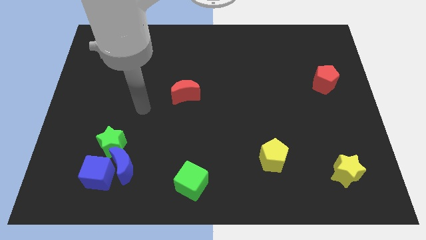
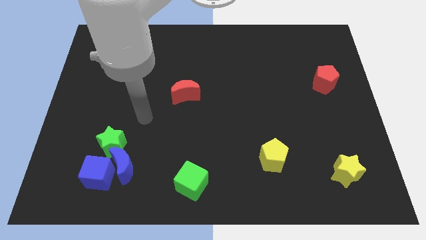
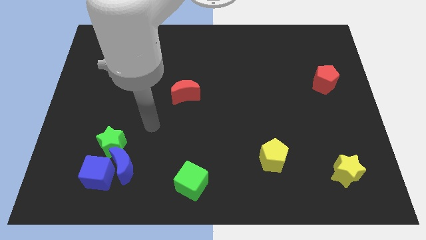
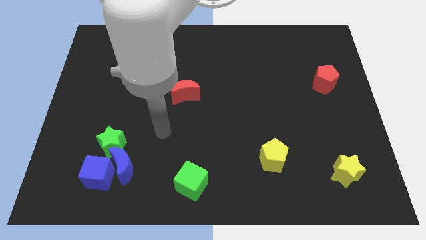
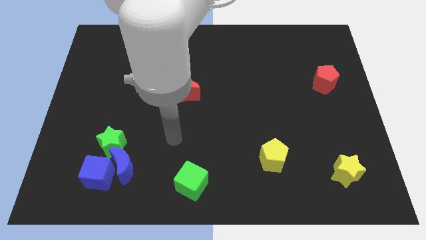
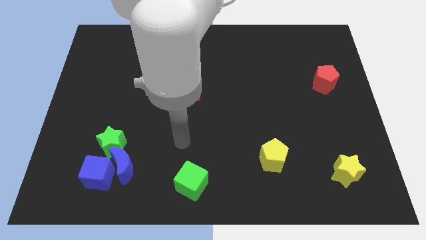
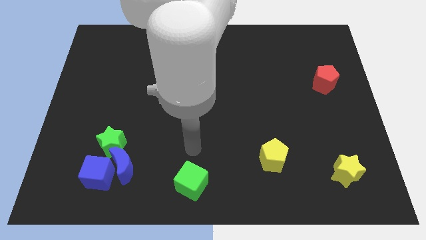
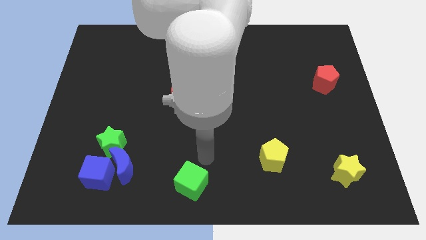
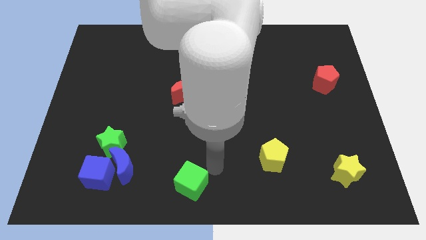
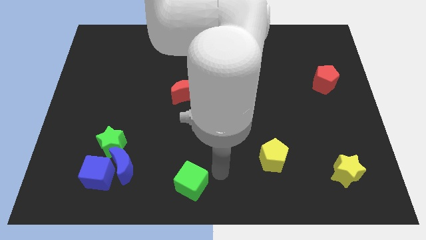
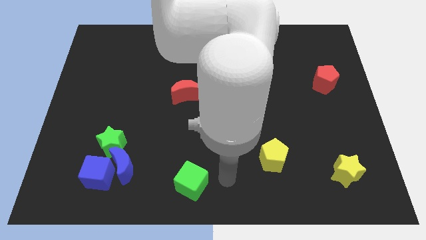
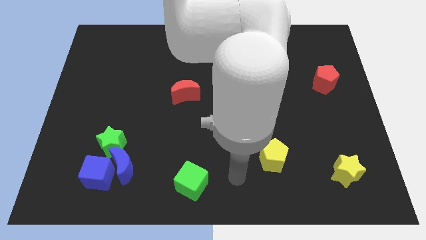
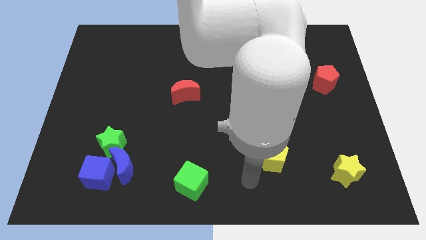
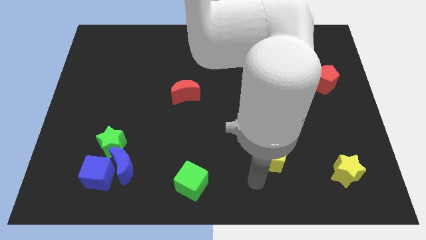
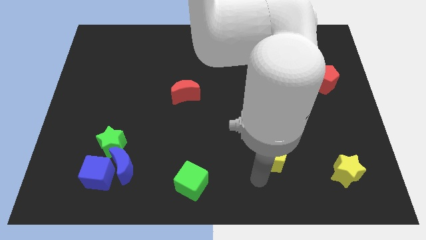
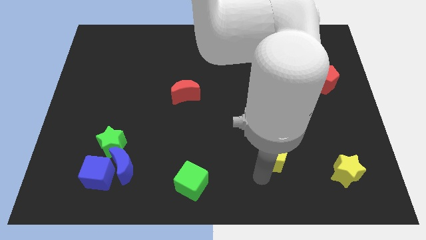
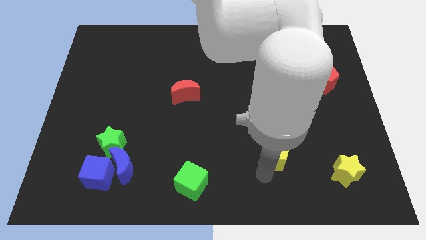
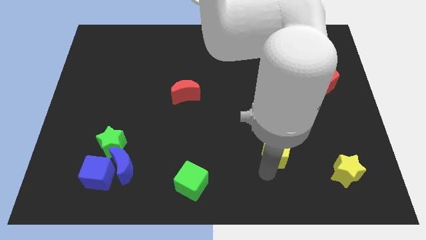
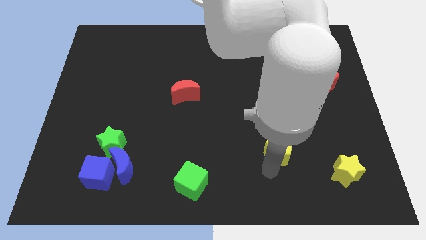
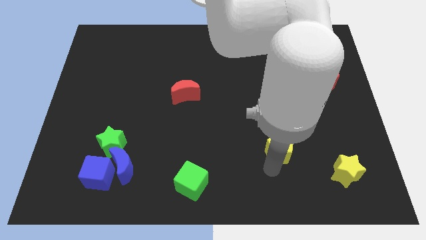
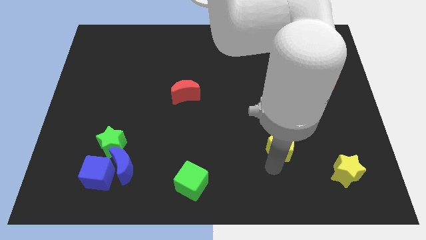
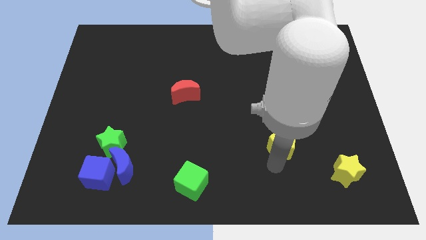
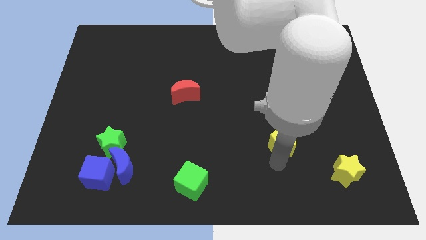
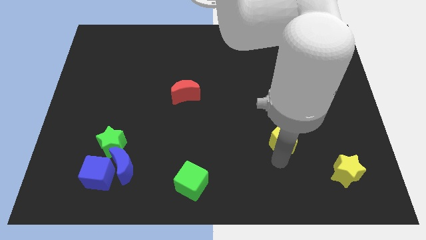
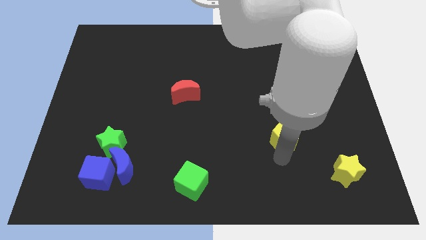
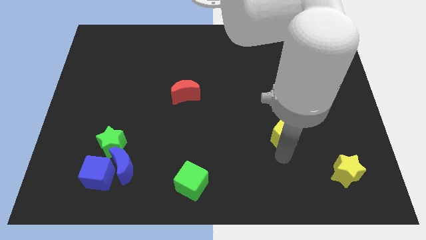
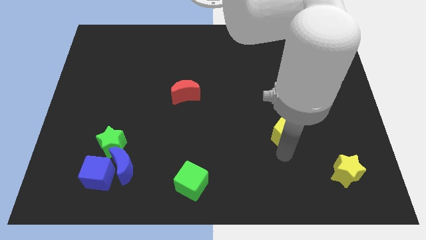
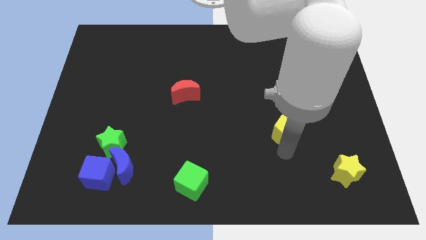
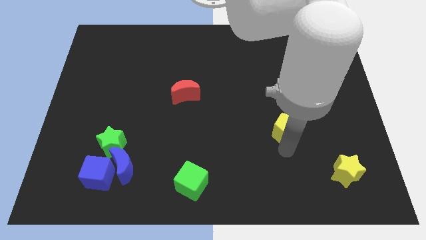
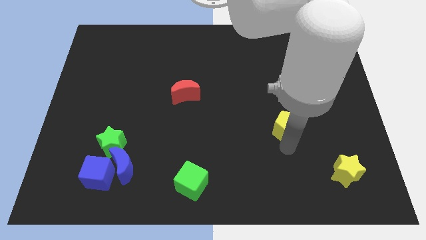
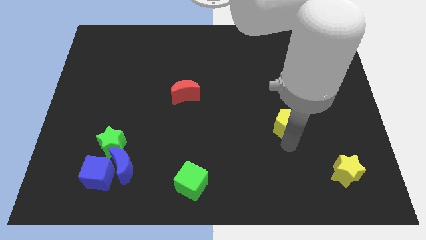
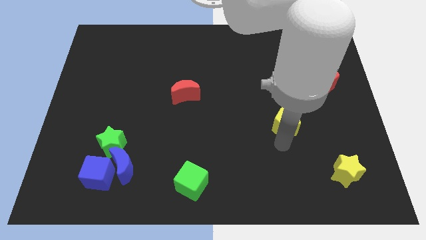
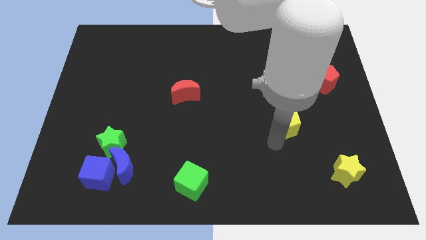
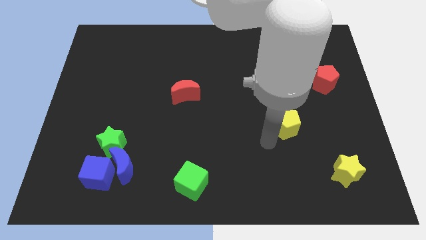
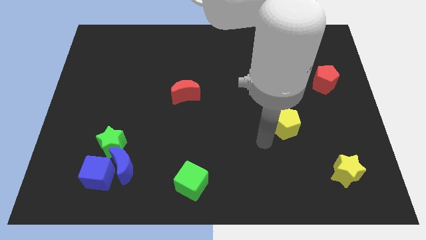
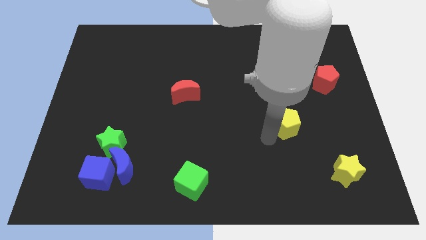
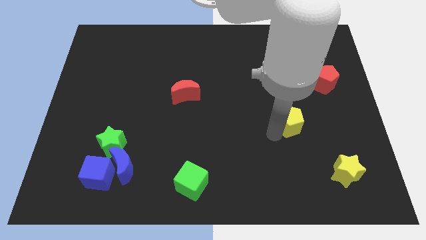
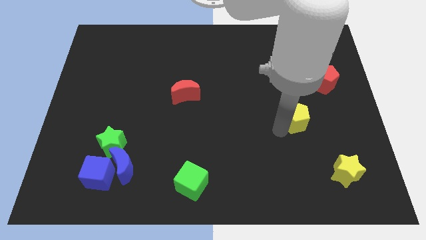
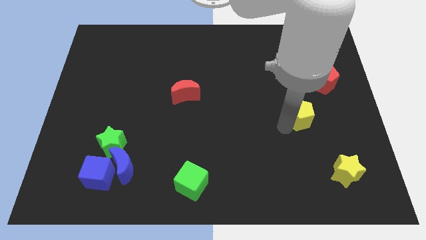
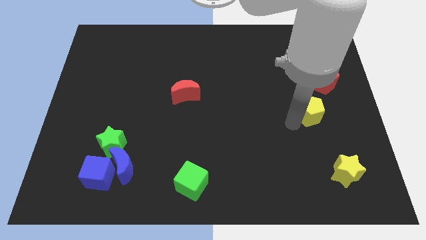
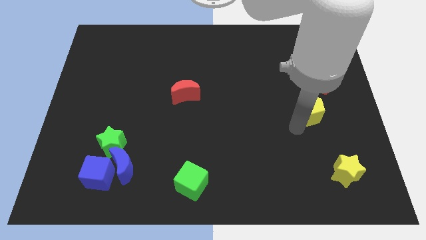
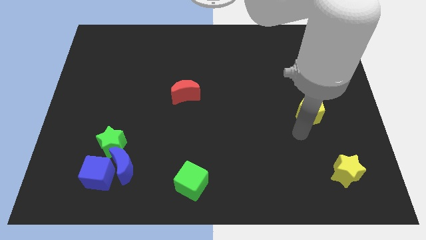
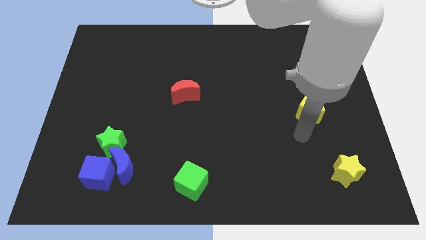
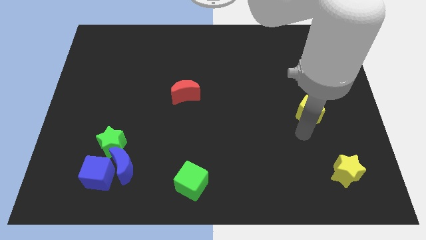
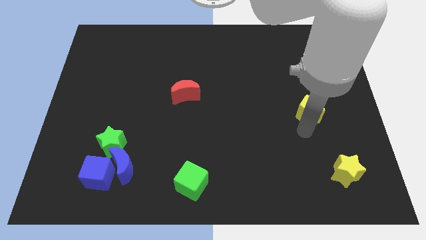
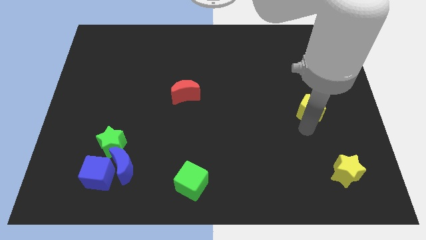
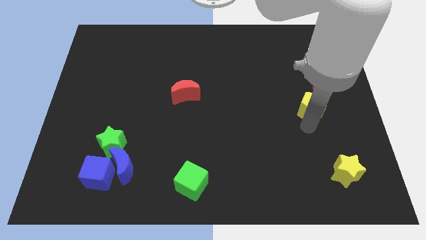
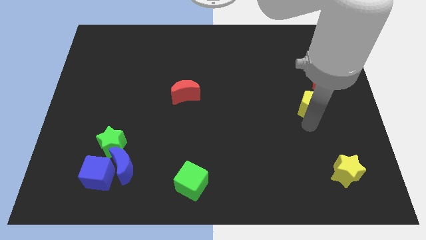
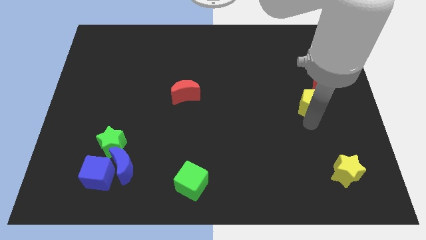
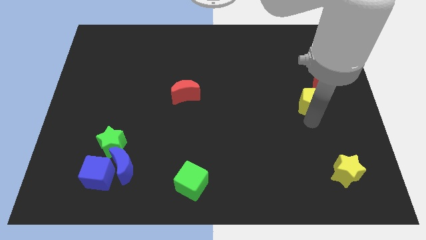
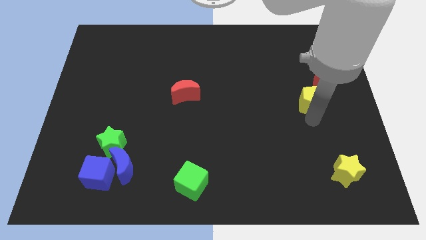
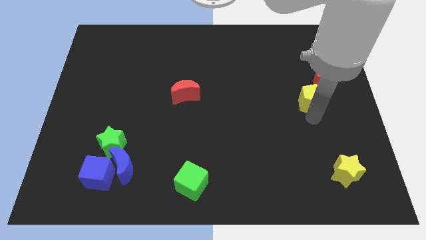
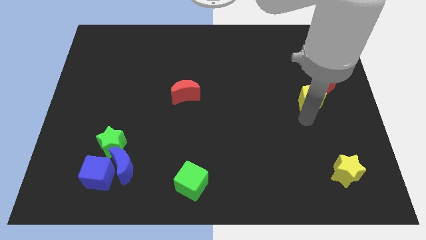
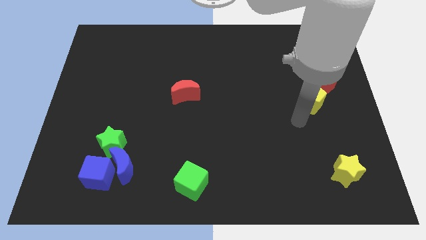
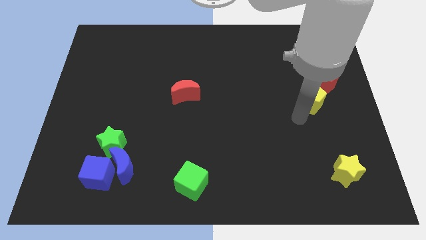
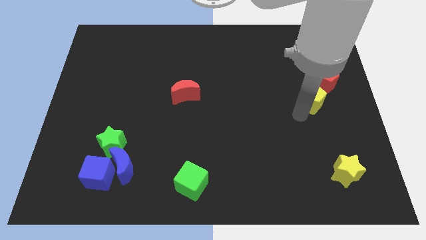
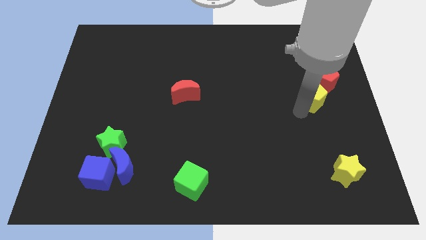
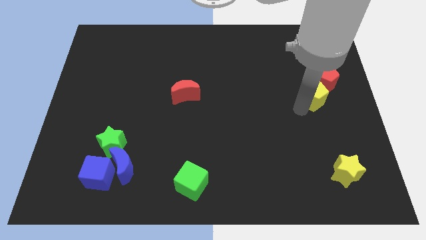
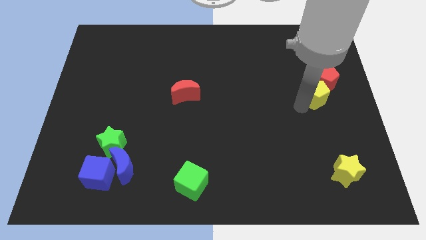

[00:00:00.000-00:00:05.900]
slide the yellow pentagon close to the red pentagon

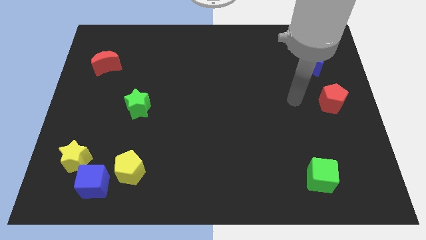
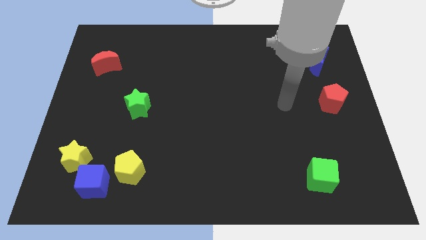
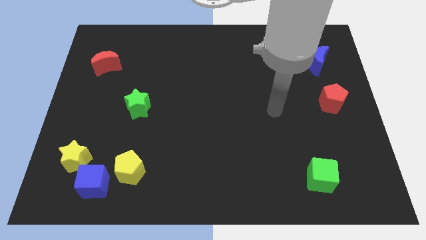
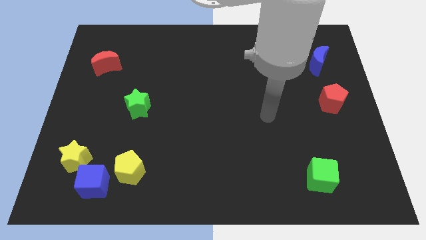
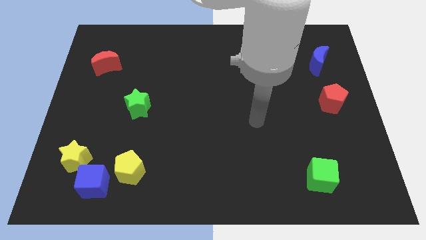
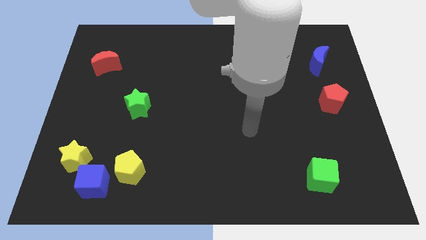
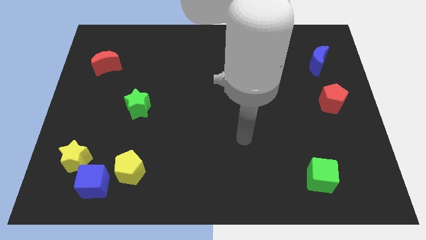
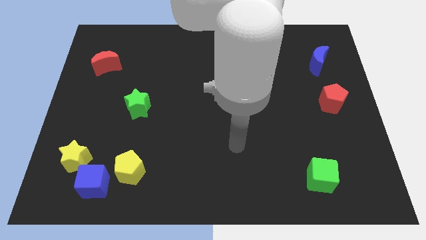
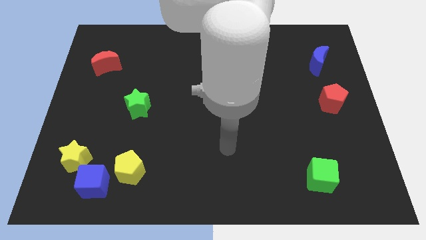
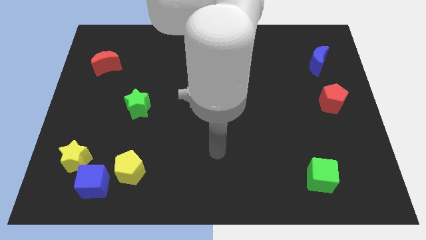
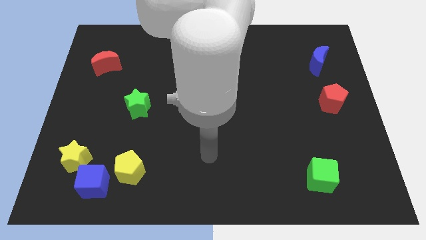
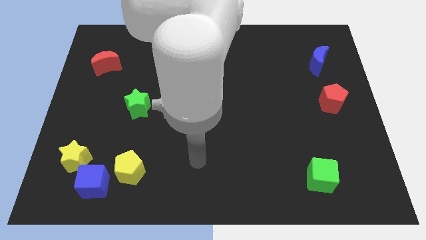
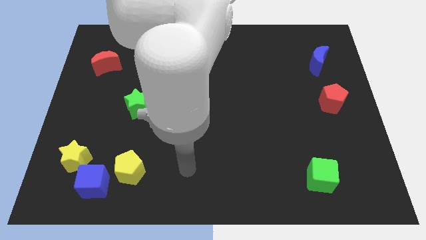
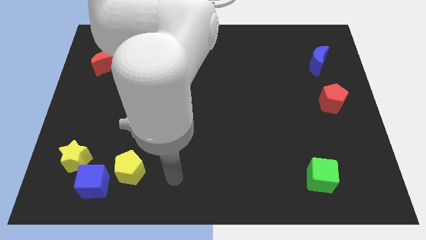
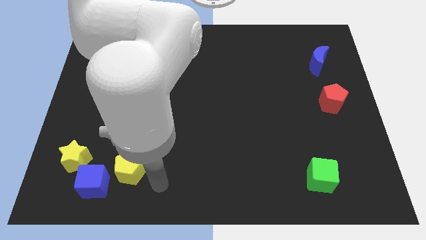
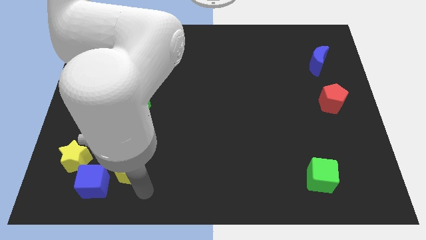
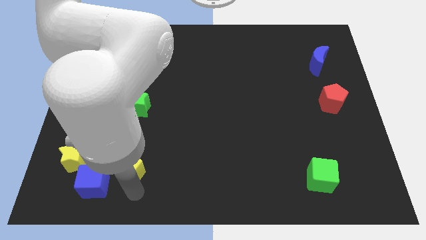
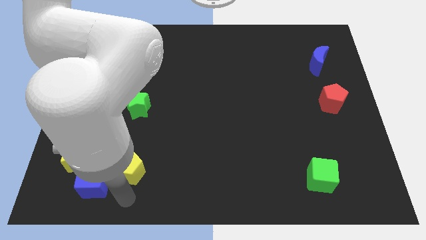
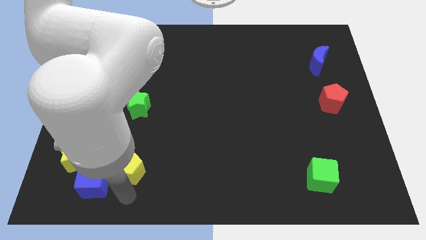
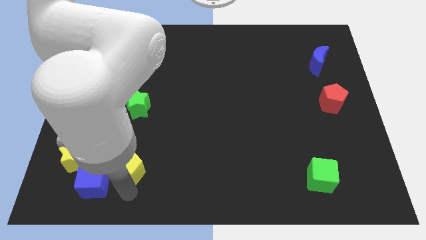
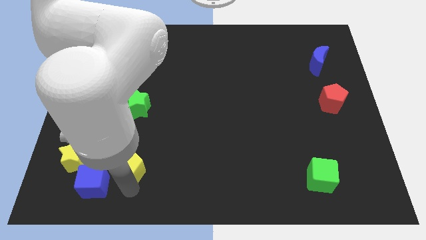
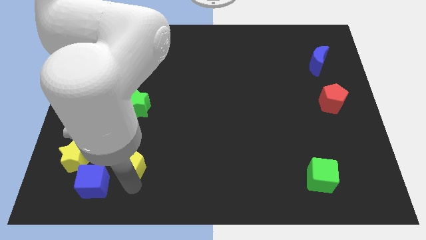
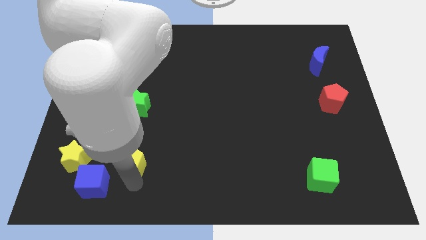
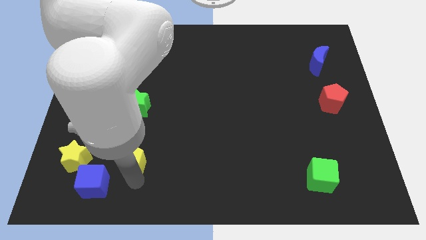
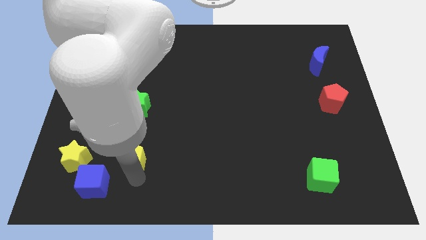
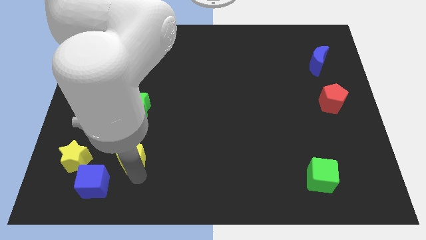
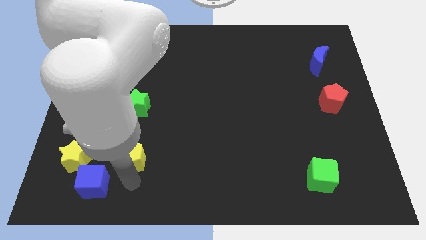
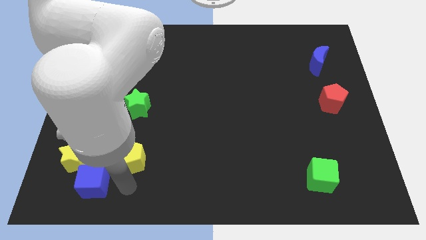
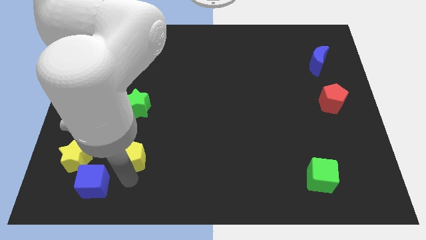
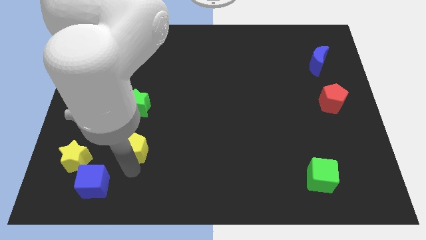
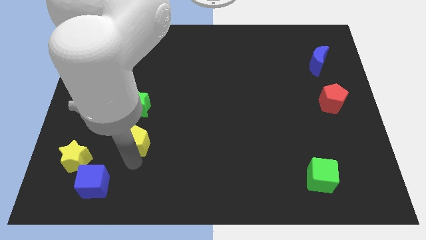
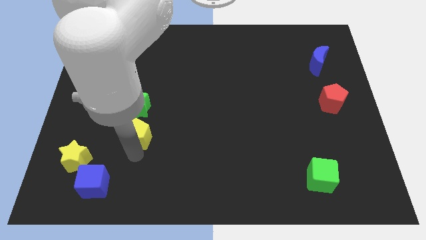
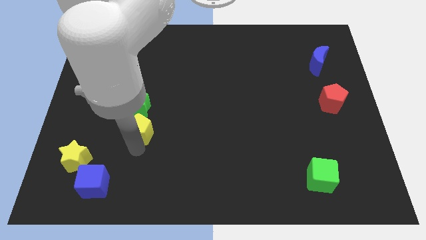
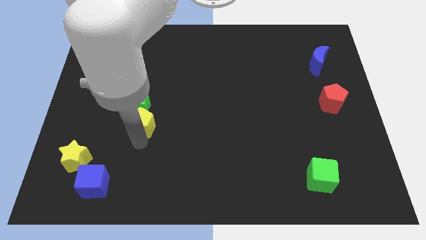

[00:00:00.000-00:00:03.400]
push the yellow pentagon next to the green star
